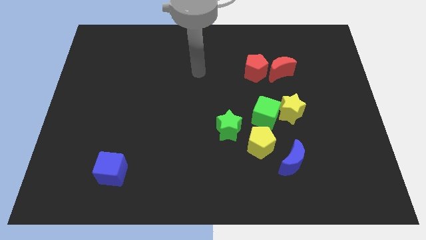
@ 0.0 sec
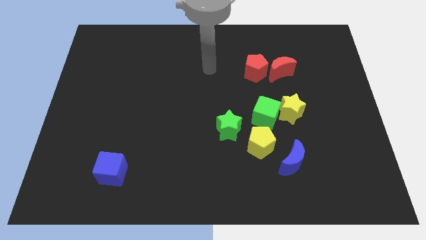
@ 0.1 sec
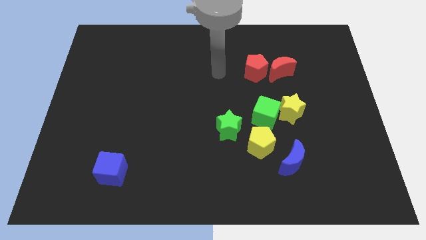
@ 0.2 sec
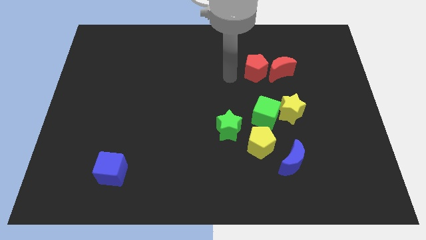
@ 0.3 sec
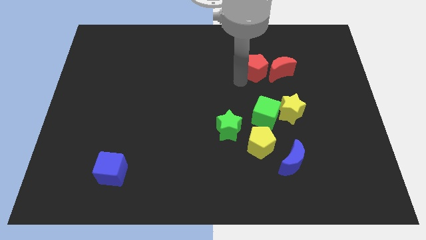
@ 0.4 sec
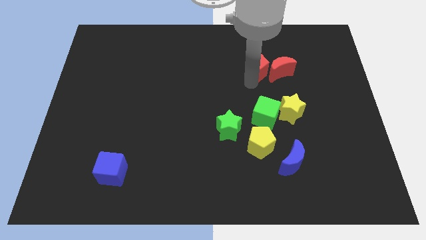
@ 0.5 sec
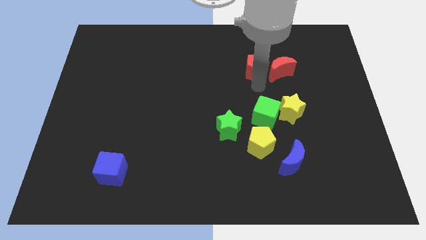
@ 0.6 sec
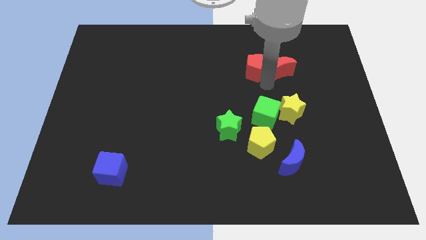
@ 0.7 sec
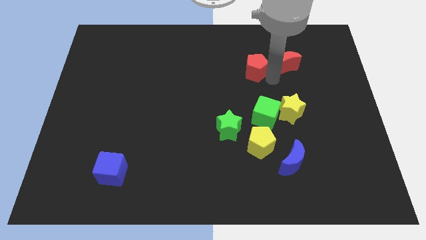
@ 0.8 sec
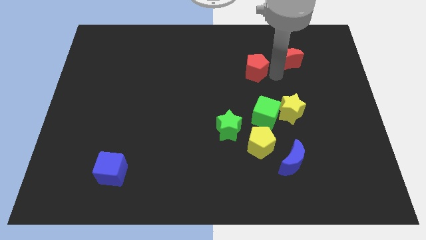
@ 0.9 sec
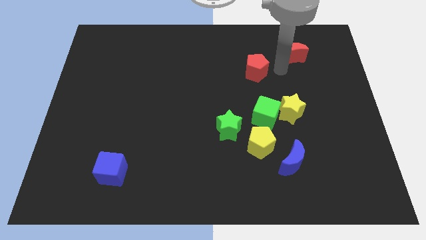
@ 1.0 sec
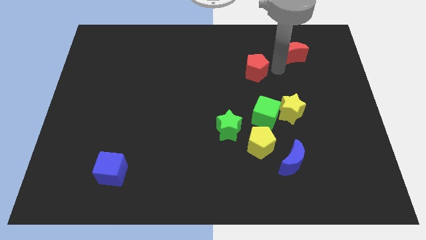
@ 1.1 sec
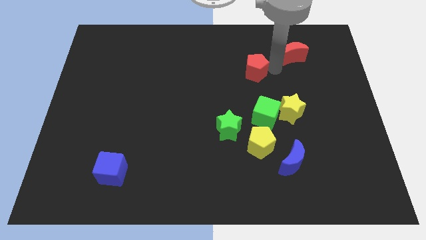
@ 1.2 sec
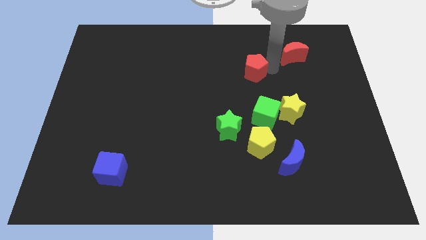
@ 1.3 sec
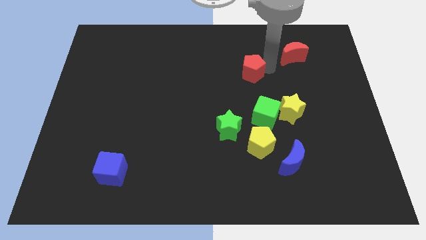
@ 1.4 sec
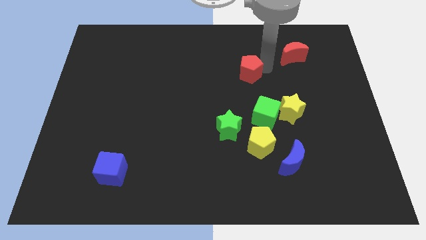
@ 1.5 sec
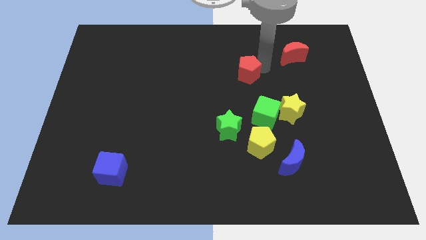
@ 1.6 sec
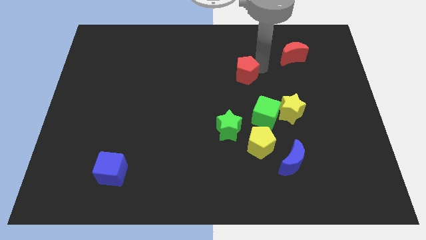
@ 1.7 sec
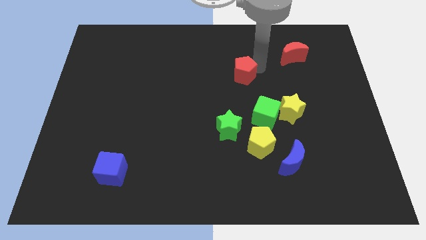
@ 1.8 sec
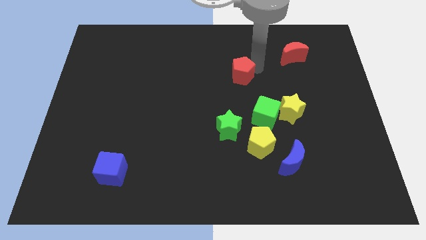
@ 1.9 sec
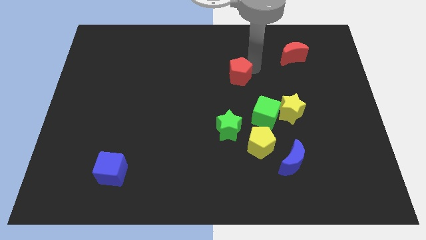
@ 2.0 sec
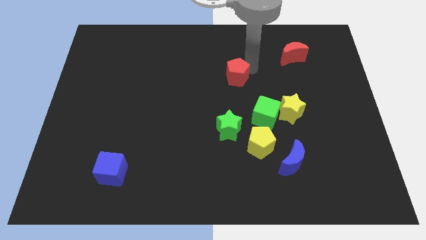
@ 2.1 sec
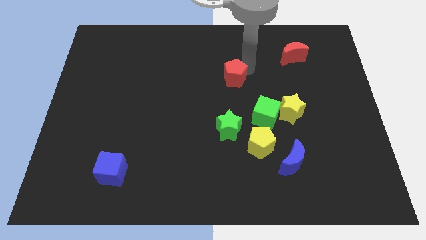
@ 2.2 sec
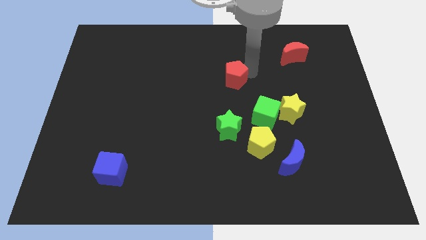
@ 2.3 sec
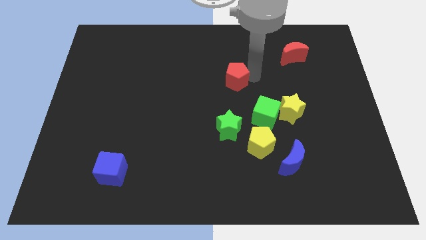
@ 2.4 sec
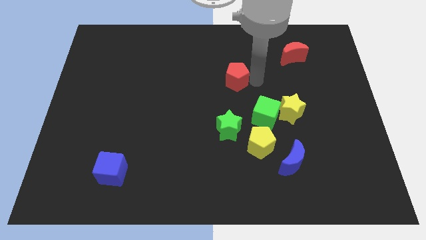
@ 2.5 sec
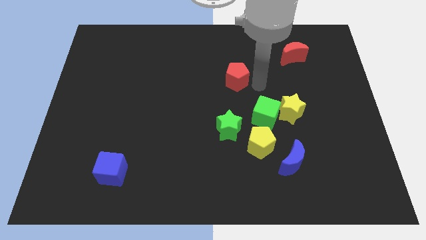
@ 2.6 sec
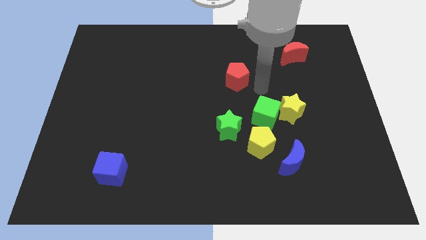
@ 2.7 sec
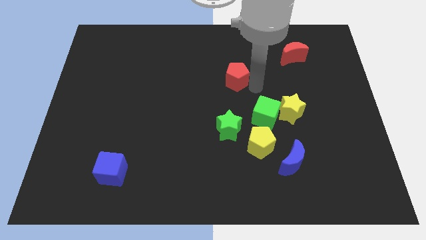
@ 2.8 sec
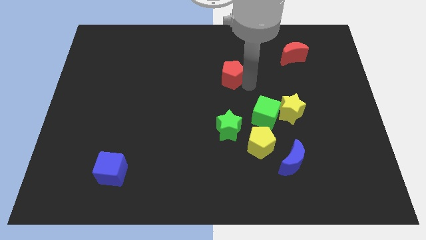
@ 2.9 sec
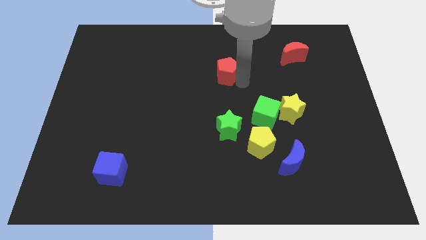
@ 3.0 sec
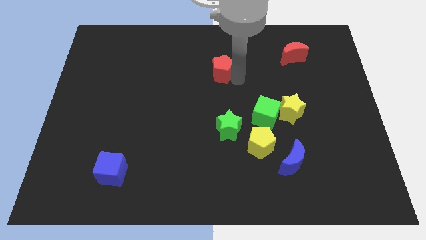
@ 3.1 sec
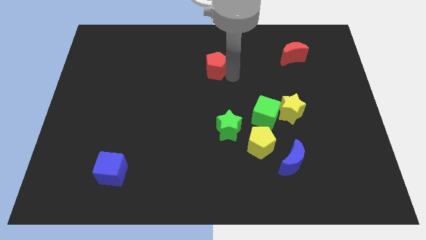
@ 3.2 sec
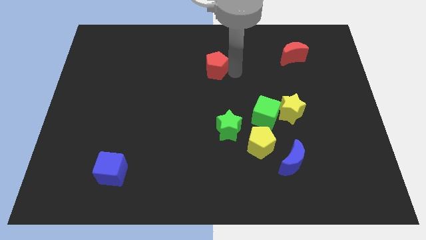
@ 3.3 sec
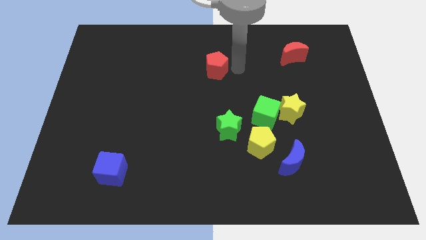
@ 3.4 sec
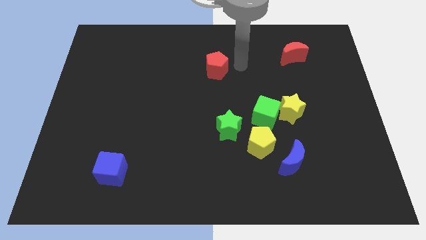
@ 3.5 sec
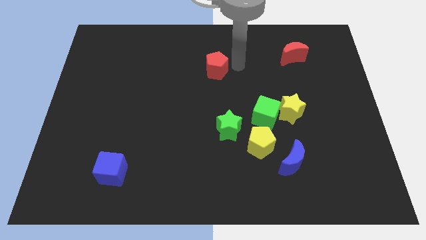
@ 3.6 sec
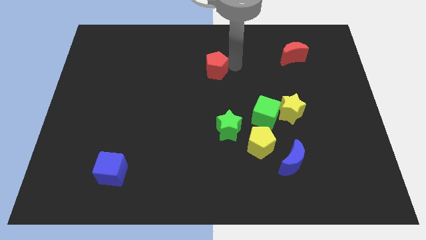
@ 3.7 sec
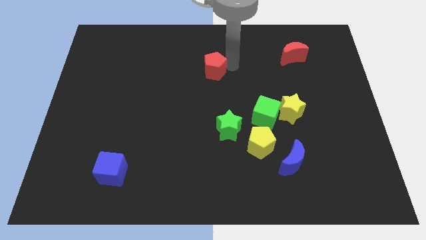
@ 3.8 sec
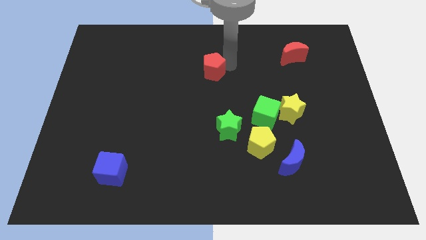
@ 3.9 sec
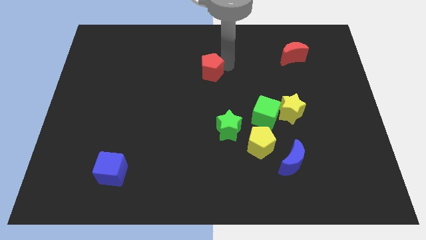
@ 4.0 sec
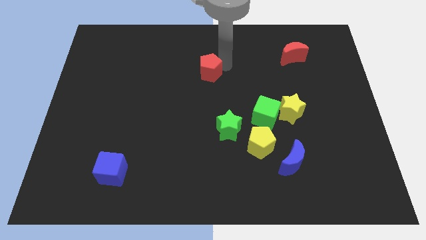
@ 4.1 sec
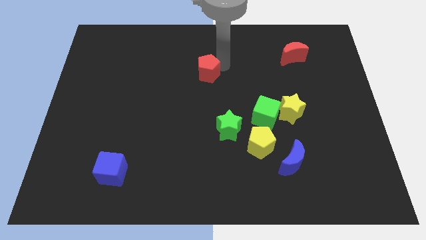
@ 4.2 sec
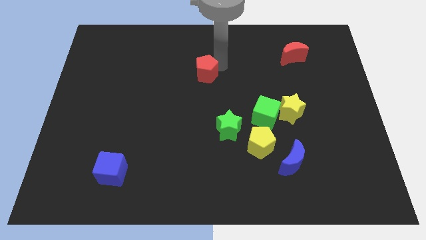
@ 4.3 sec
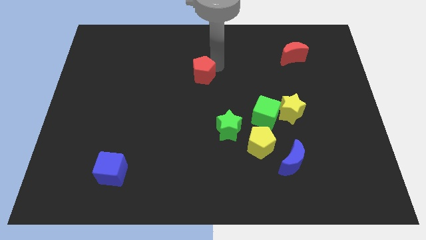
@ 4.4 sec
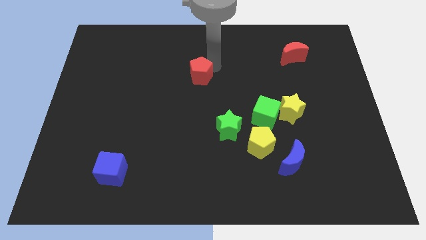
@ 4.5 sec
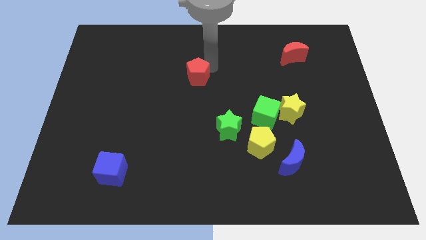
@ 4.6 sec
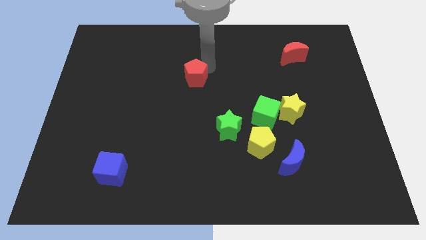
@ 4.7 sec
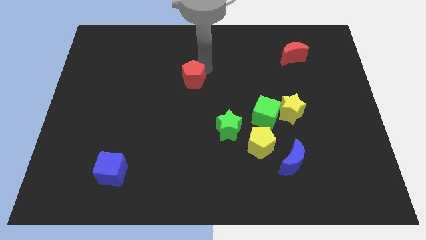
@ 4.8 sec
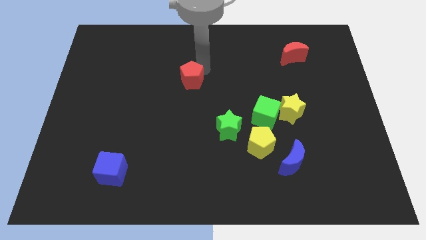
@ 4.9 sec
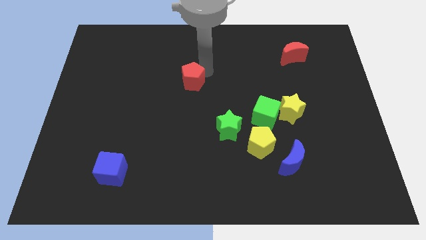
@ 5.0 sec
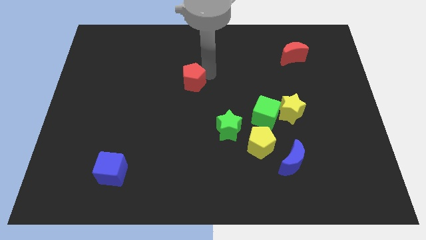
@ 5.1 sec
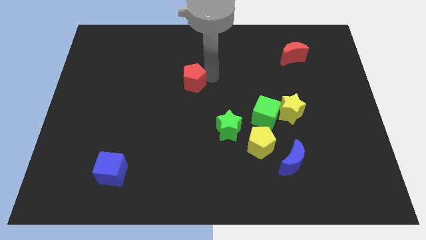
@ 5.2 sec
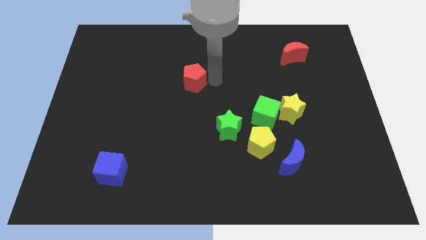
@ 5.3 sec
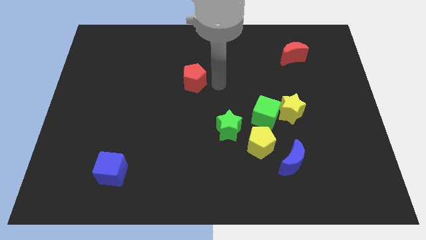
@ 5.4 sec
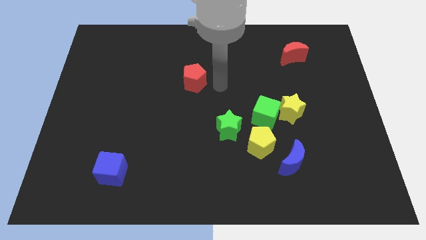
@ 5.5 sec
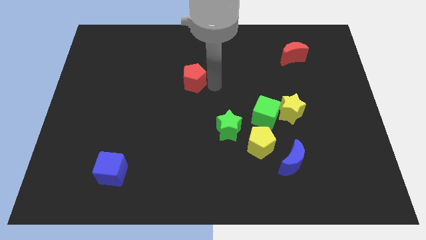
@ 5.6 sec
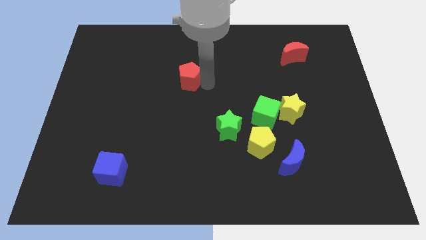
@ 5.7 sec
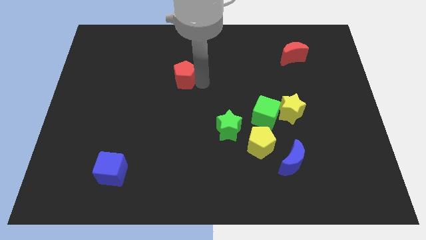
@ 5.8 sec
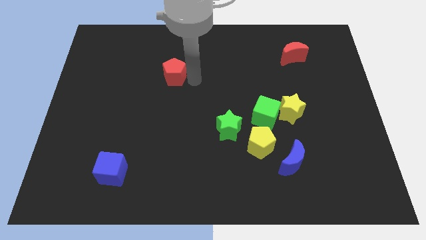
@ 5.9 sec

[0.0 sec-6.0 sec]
slide the red pentagon left

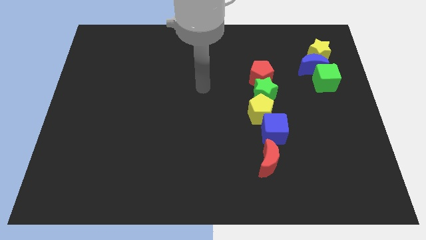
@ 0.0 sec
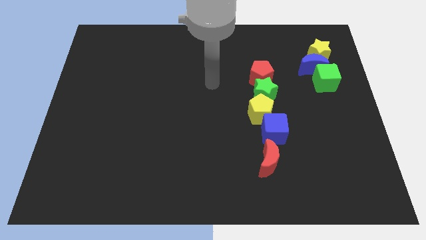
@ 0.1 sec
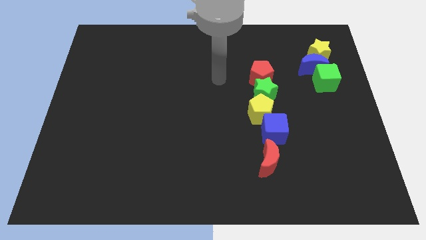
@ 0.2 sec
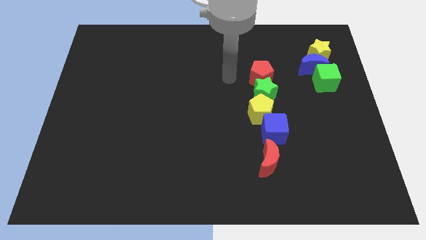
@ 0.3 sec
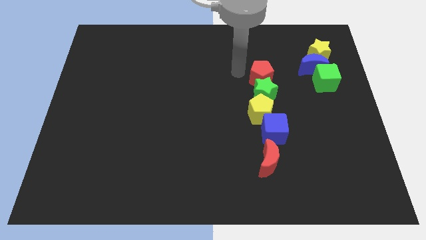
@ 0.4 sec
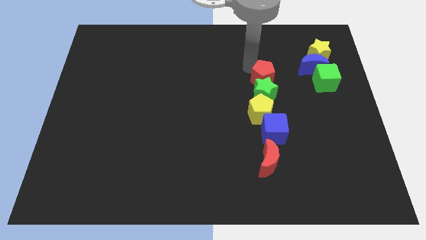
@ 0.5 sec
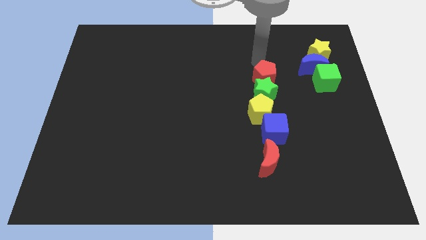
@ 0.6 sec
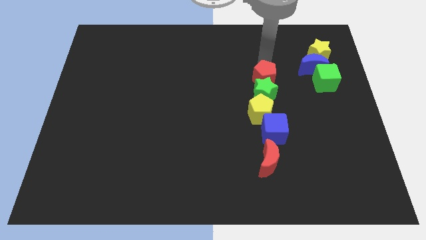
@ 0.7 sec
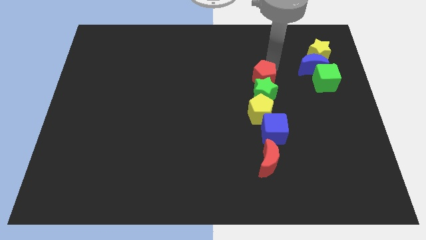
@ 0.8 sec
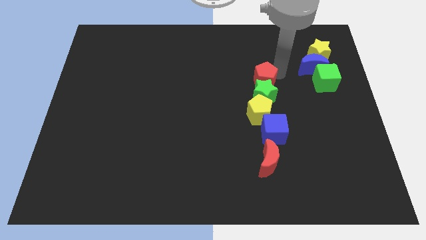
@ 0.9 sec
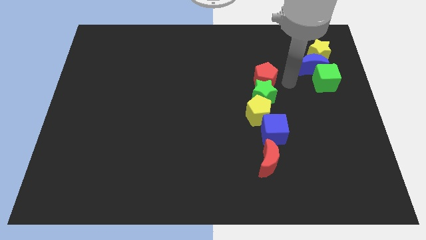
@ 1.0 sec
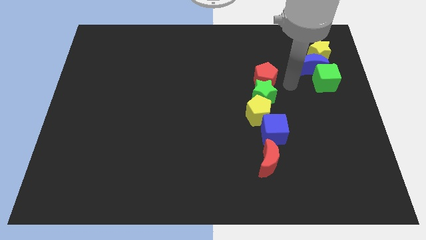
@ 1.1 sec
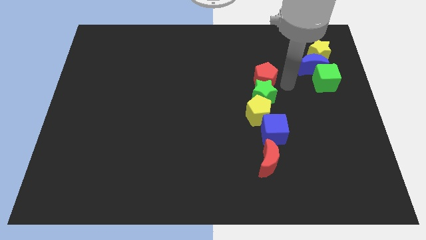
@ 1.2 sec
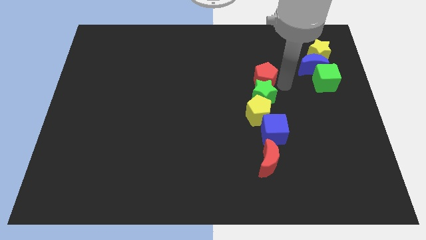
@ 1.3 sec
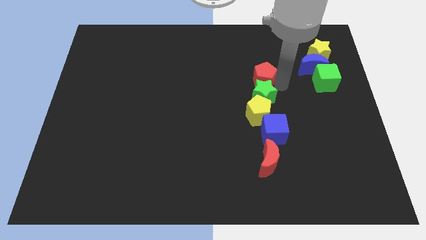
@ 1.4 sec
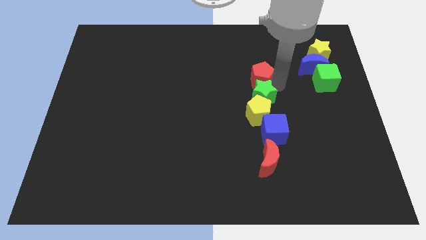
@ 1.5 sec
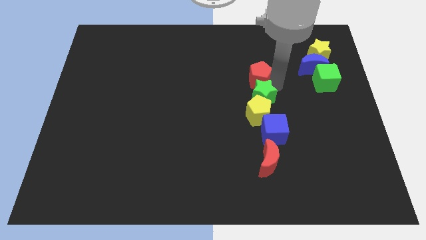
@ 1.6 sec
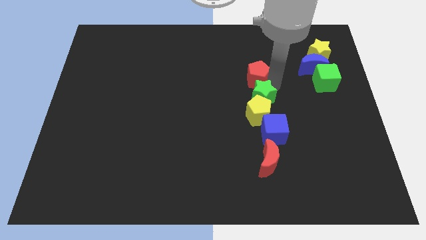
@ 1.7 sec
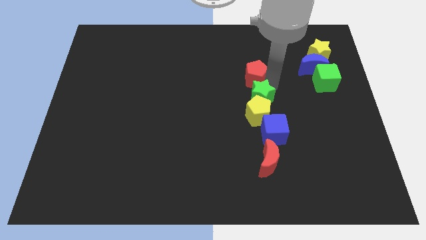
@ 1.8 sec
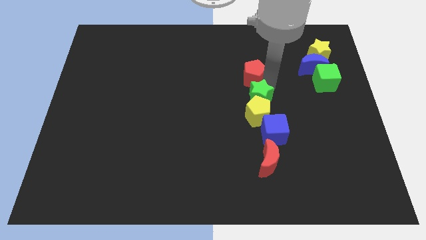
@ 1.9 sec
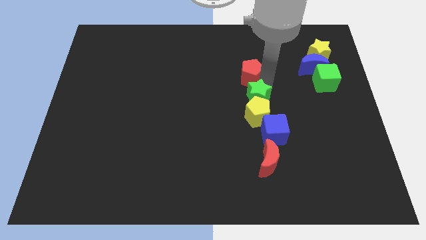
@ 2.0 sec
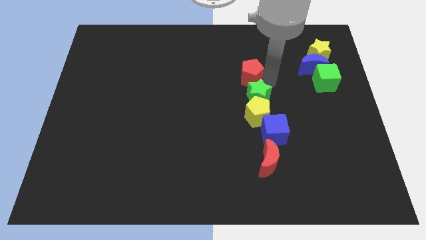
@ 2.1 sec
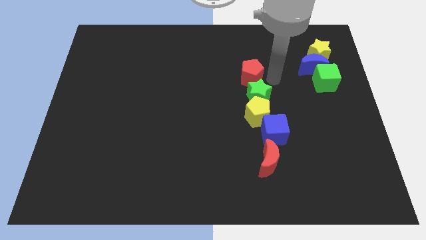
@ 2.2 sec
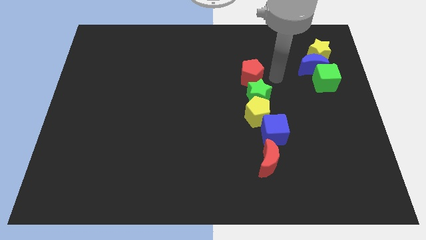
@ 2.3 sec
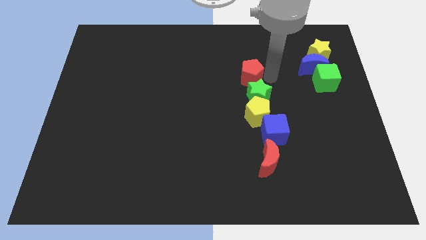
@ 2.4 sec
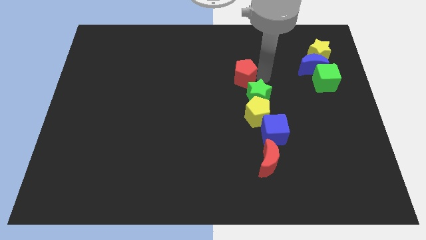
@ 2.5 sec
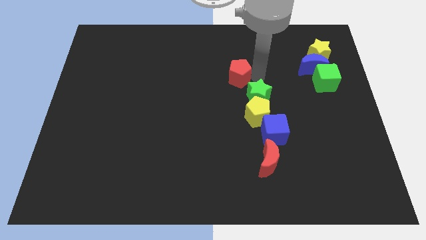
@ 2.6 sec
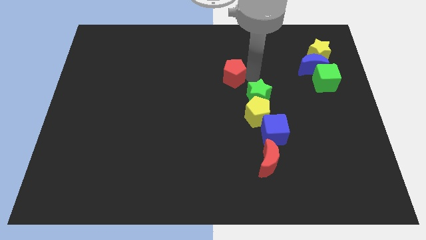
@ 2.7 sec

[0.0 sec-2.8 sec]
move the red pentagon left slightly
